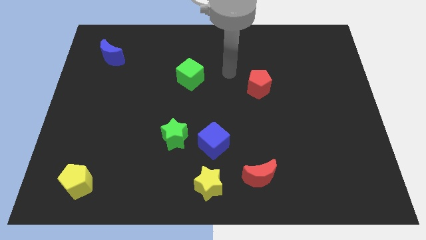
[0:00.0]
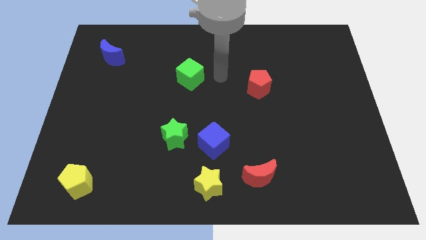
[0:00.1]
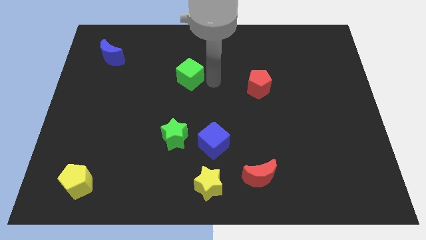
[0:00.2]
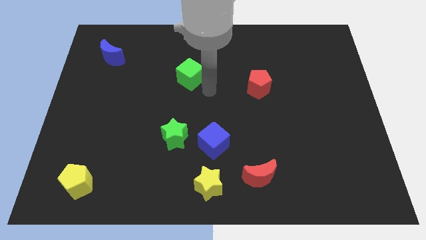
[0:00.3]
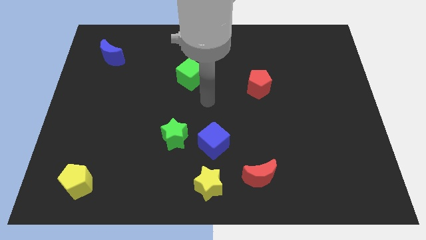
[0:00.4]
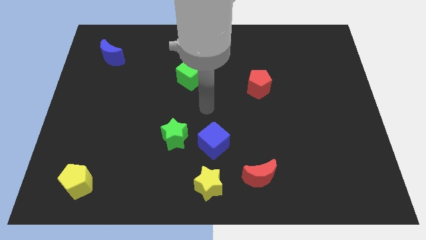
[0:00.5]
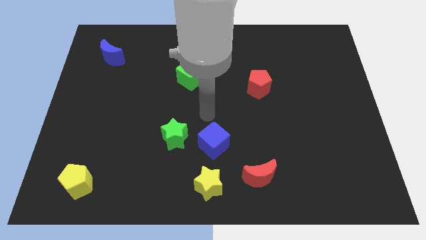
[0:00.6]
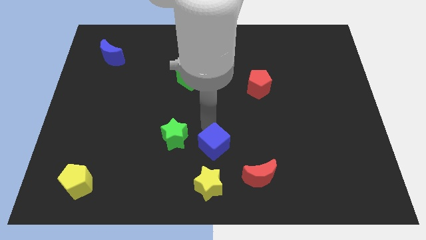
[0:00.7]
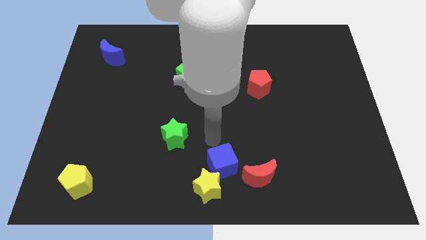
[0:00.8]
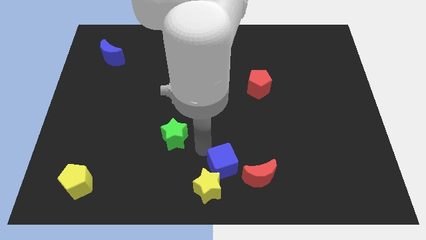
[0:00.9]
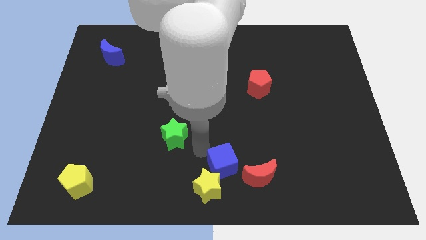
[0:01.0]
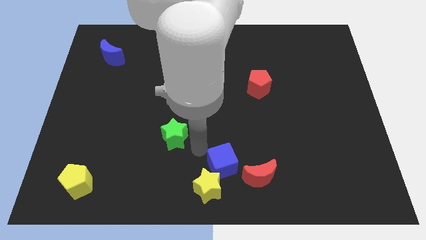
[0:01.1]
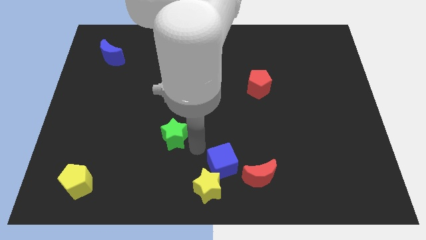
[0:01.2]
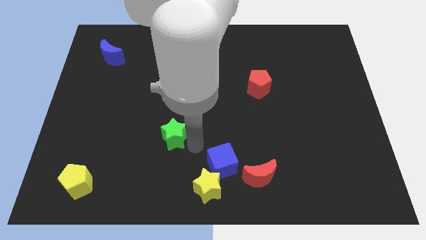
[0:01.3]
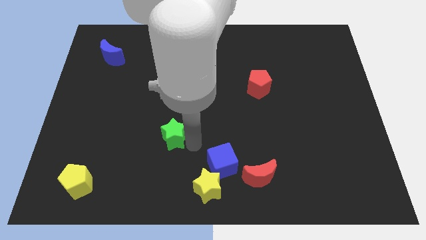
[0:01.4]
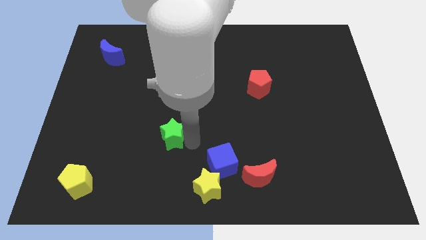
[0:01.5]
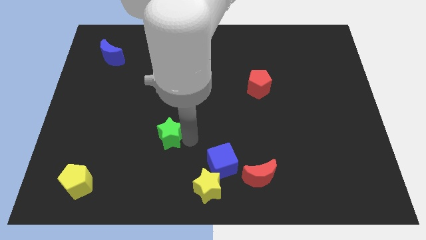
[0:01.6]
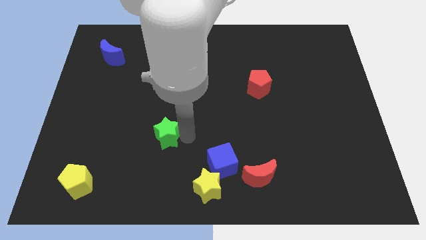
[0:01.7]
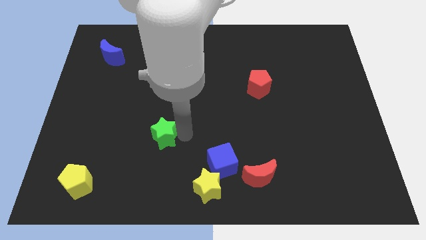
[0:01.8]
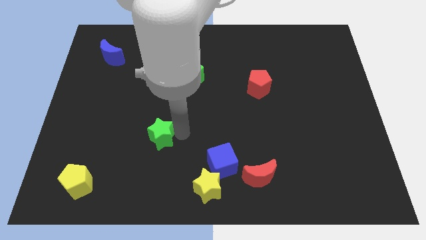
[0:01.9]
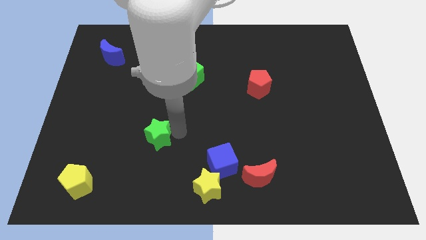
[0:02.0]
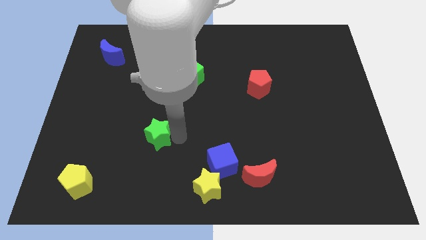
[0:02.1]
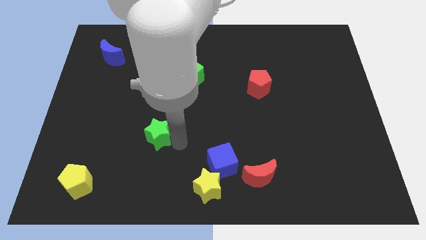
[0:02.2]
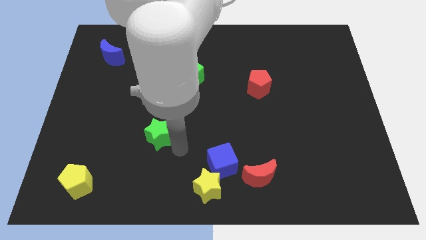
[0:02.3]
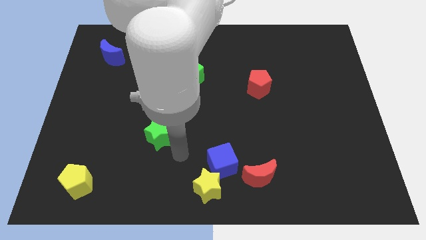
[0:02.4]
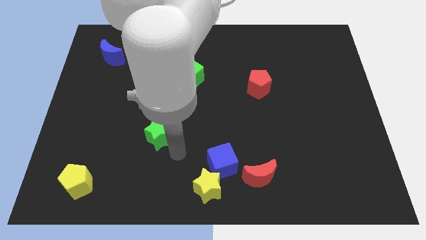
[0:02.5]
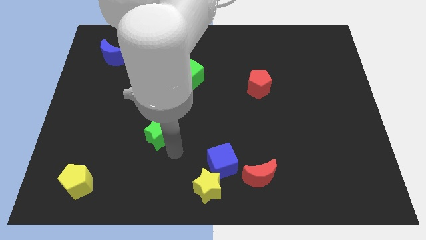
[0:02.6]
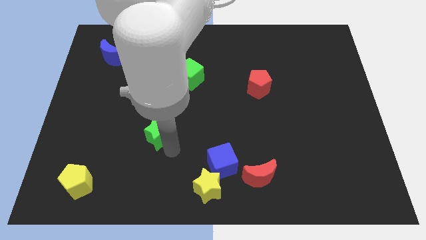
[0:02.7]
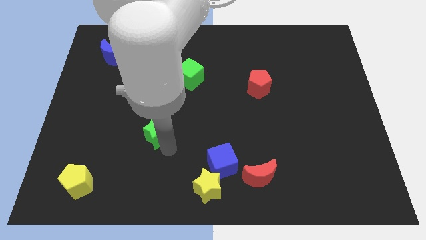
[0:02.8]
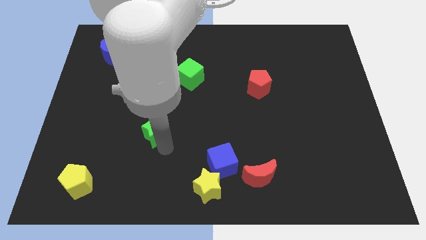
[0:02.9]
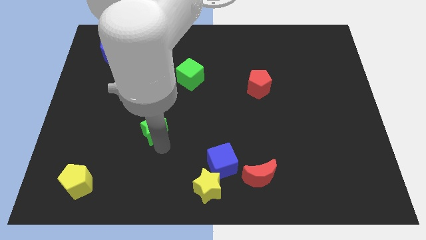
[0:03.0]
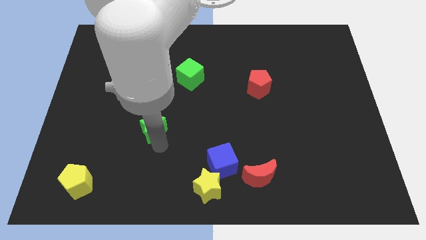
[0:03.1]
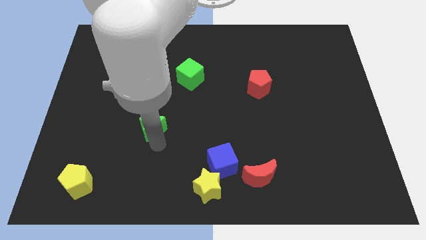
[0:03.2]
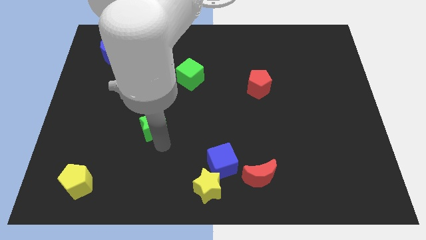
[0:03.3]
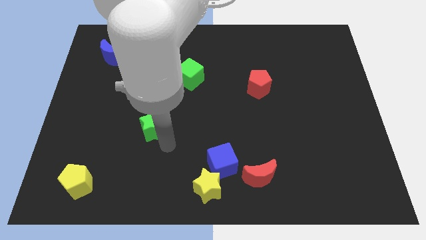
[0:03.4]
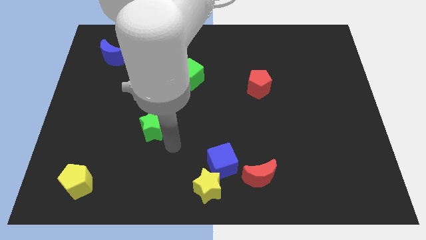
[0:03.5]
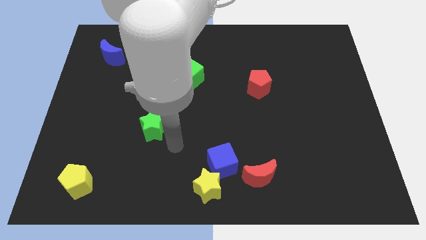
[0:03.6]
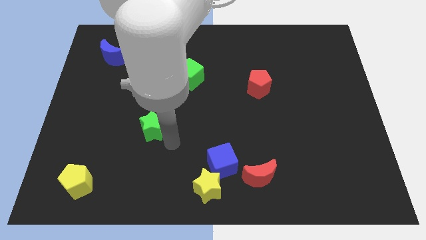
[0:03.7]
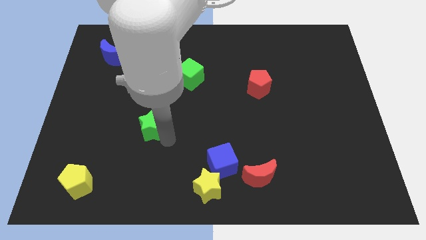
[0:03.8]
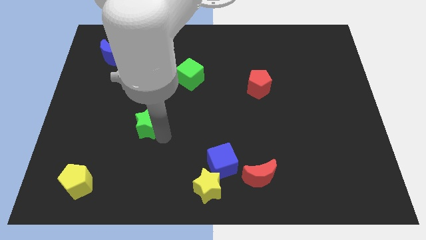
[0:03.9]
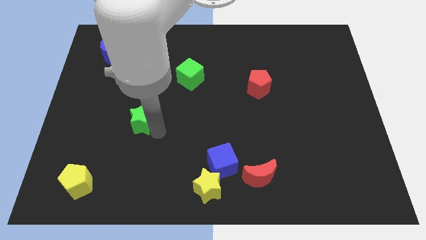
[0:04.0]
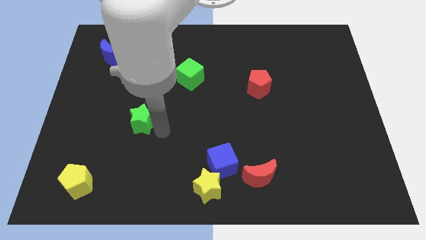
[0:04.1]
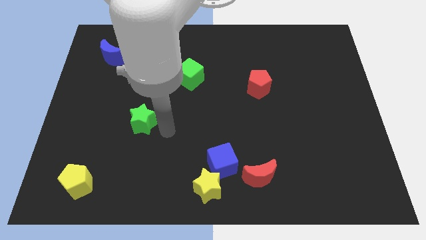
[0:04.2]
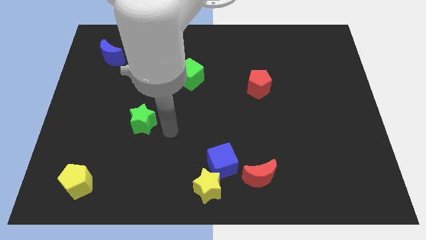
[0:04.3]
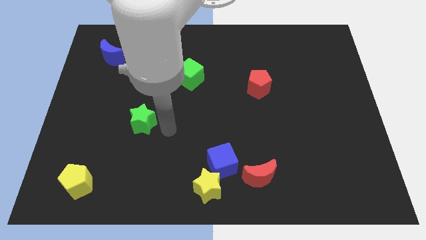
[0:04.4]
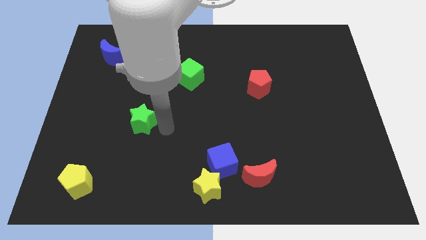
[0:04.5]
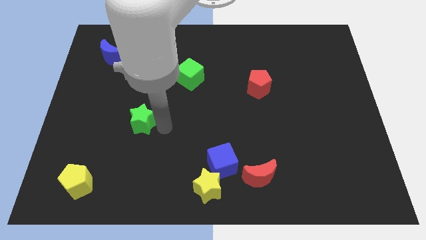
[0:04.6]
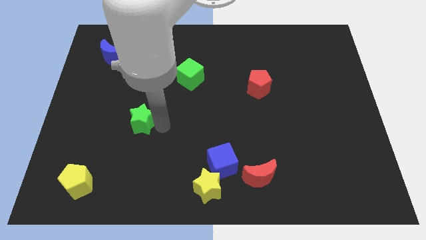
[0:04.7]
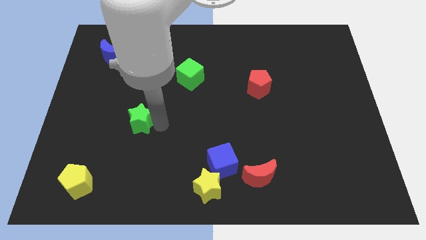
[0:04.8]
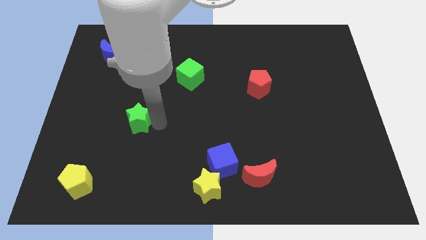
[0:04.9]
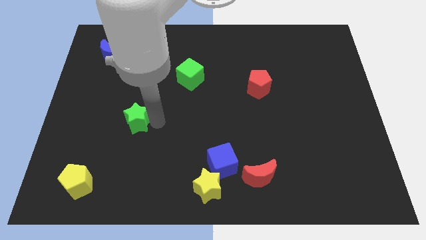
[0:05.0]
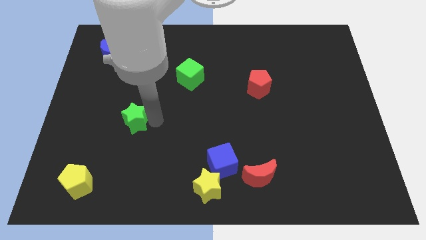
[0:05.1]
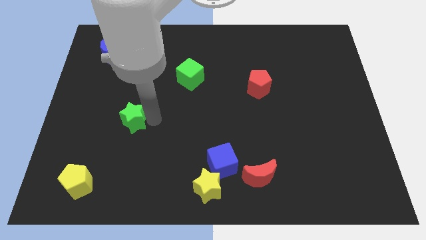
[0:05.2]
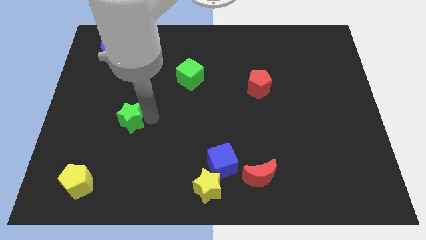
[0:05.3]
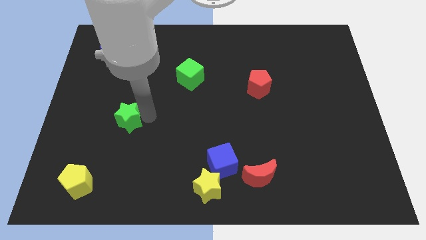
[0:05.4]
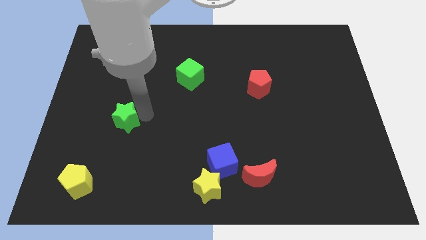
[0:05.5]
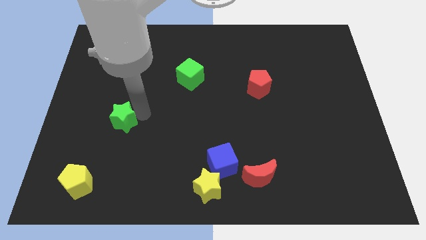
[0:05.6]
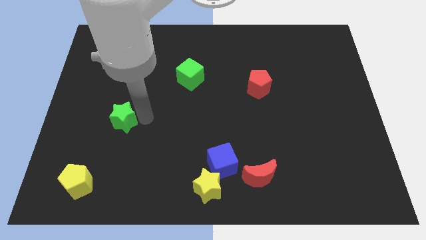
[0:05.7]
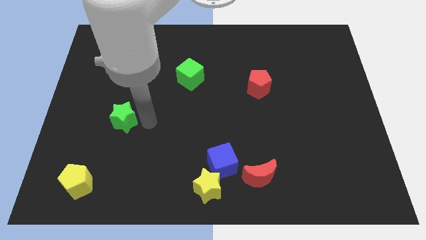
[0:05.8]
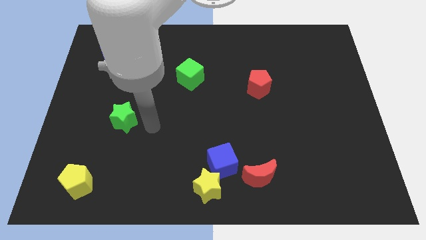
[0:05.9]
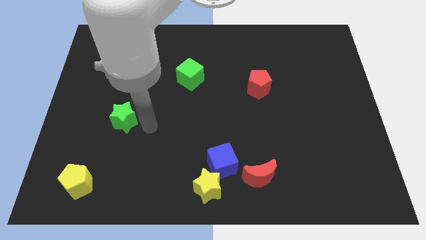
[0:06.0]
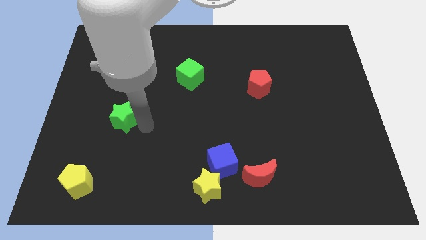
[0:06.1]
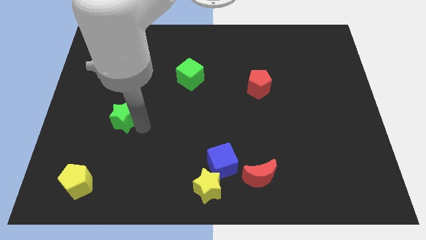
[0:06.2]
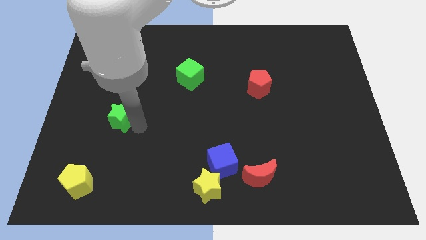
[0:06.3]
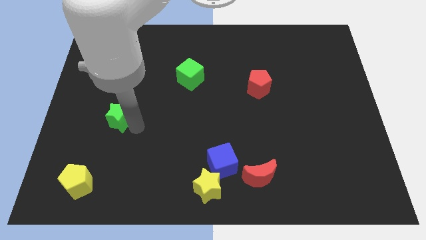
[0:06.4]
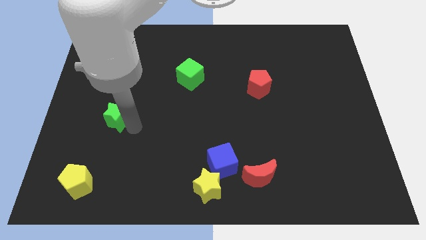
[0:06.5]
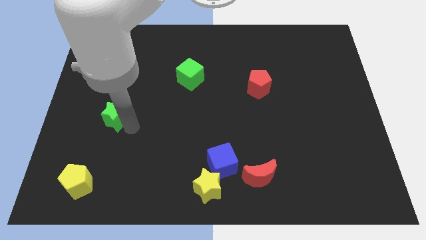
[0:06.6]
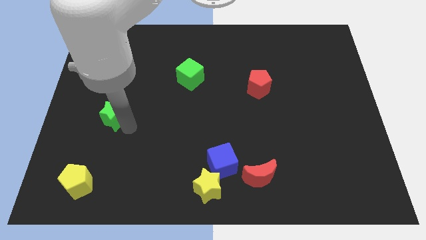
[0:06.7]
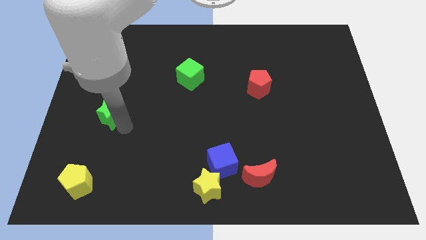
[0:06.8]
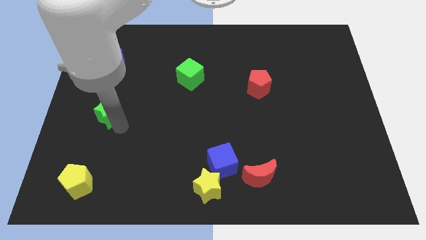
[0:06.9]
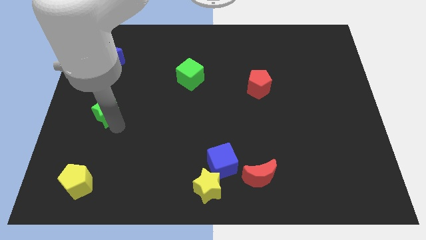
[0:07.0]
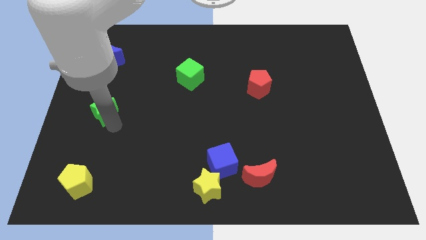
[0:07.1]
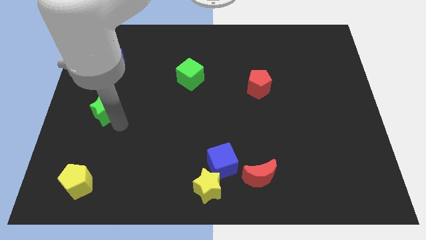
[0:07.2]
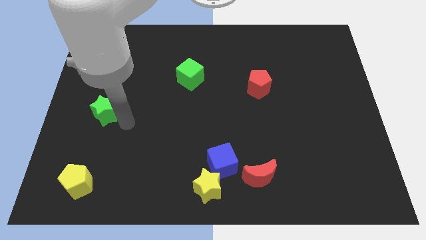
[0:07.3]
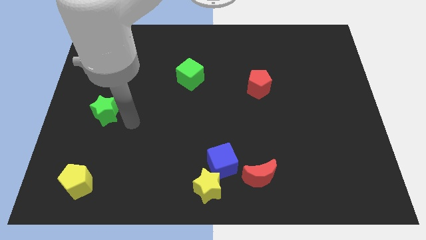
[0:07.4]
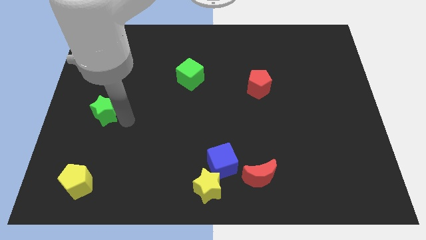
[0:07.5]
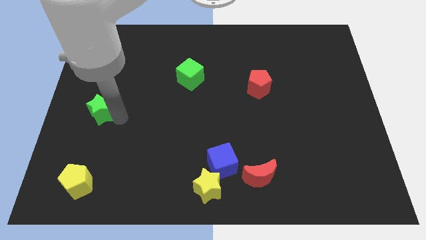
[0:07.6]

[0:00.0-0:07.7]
move the green star to the center left
